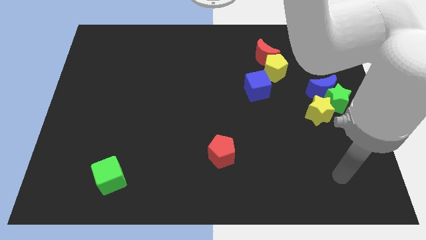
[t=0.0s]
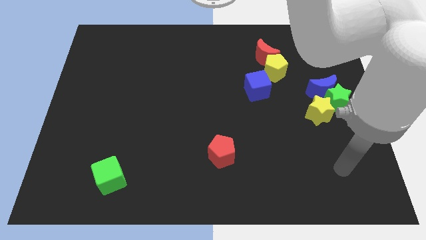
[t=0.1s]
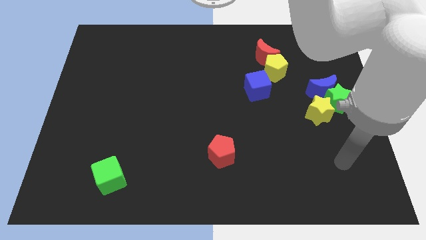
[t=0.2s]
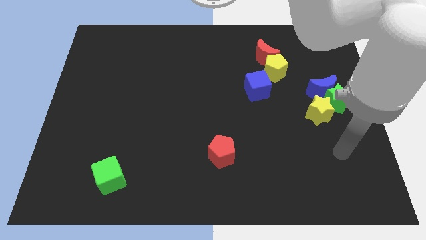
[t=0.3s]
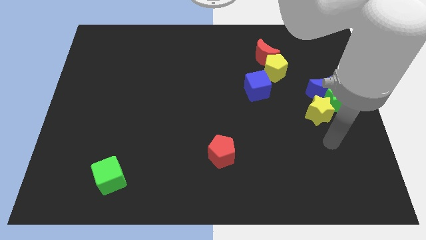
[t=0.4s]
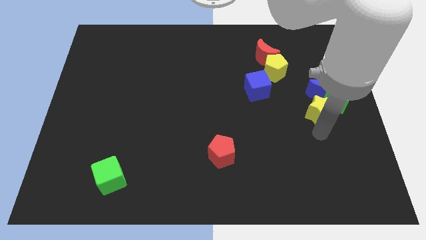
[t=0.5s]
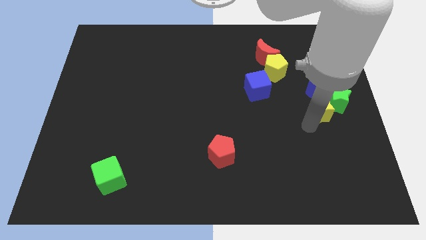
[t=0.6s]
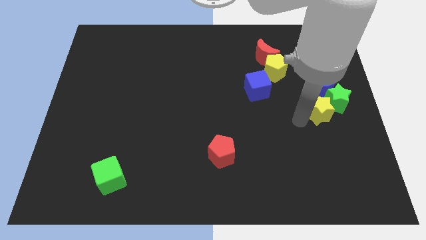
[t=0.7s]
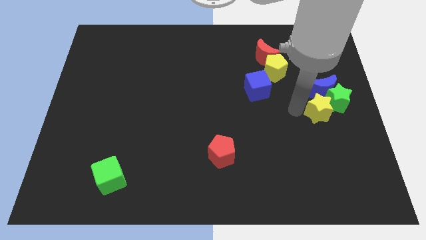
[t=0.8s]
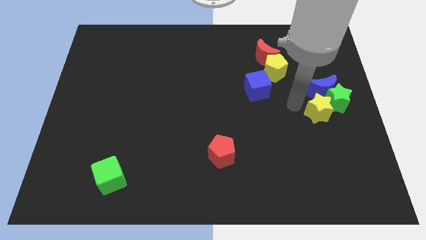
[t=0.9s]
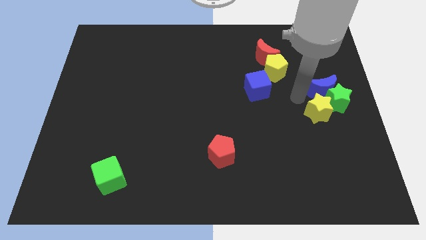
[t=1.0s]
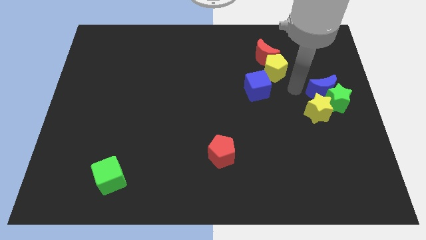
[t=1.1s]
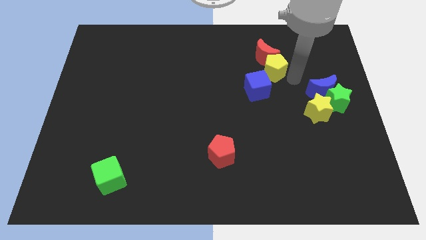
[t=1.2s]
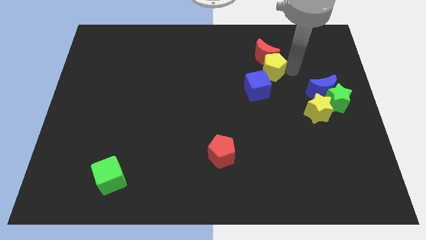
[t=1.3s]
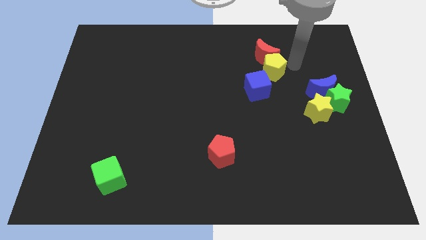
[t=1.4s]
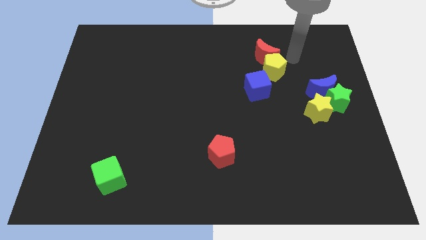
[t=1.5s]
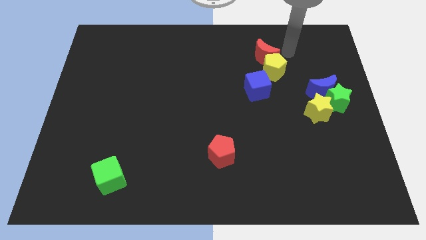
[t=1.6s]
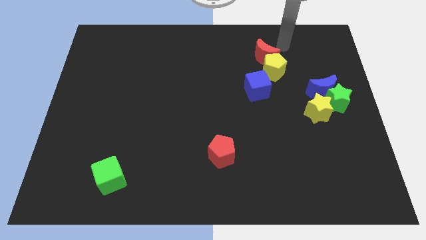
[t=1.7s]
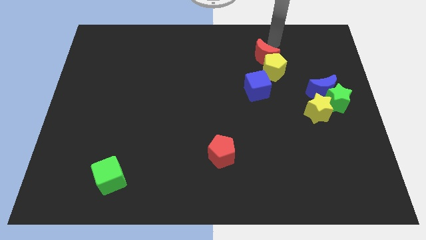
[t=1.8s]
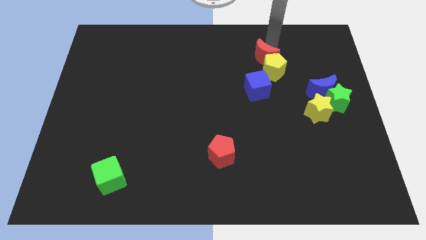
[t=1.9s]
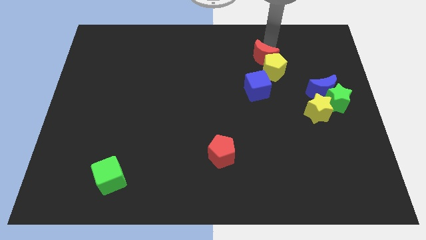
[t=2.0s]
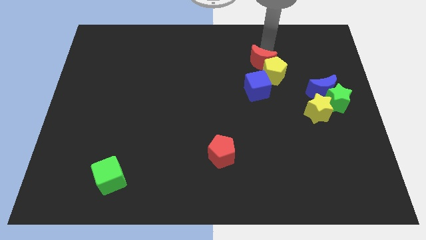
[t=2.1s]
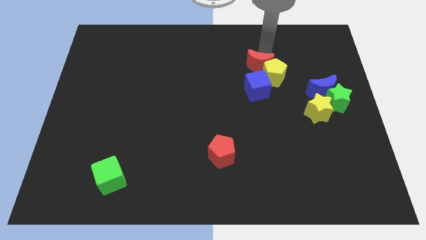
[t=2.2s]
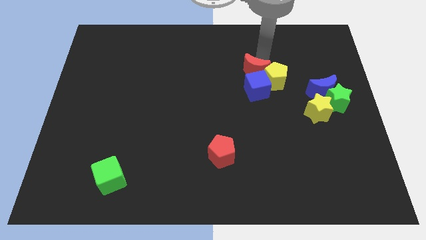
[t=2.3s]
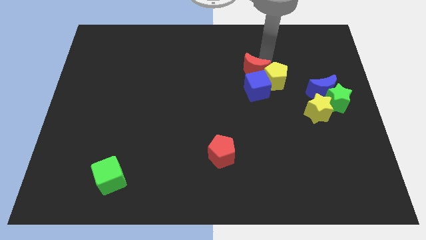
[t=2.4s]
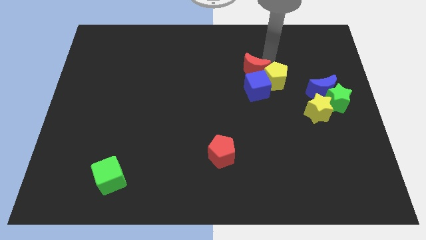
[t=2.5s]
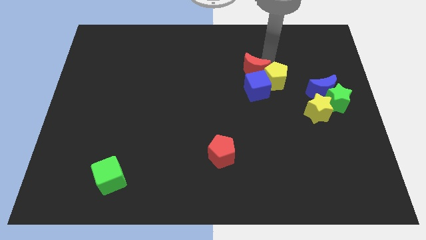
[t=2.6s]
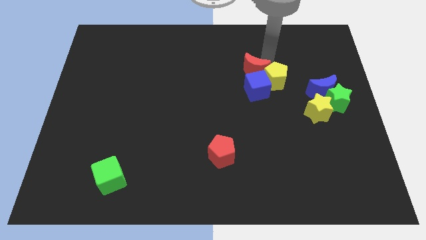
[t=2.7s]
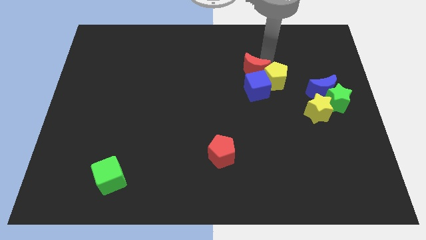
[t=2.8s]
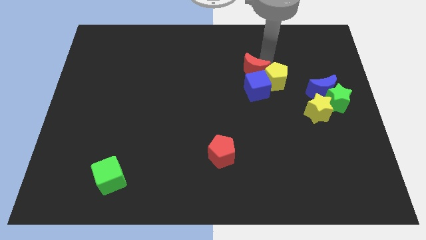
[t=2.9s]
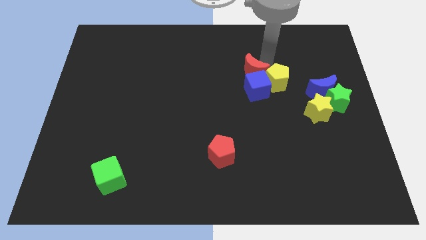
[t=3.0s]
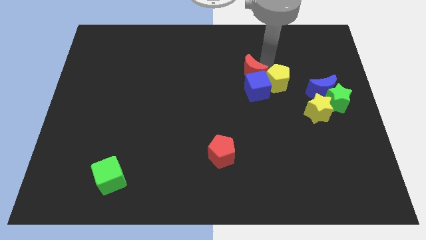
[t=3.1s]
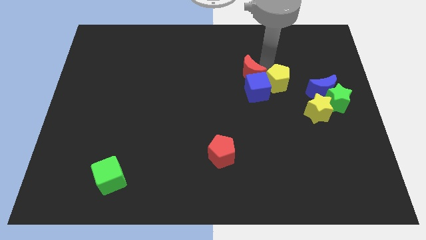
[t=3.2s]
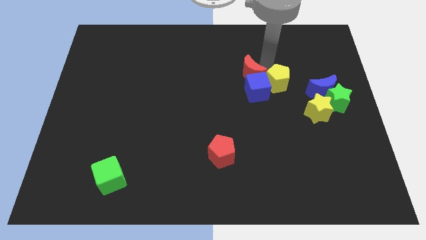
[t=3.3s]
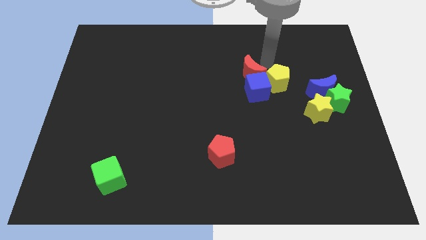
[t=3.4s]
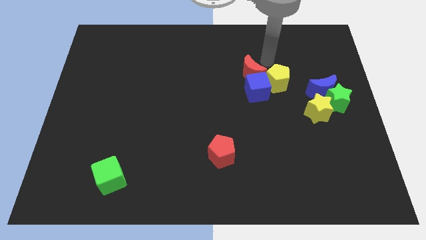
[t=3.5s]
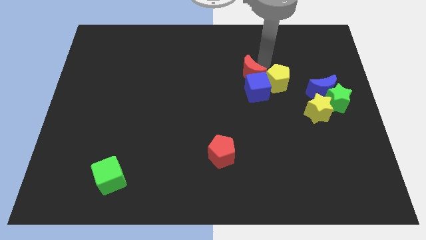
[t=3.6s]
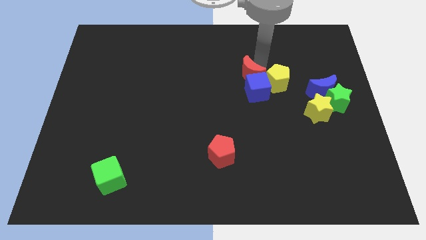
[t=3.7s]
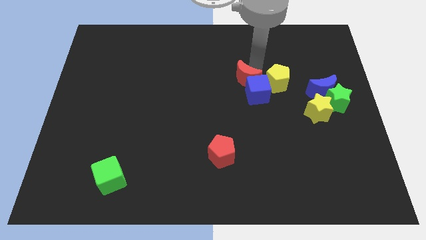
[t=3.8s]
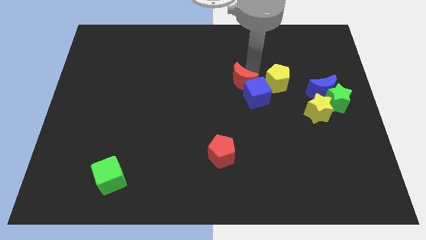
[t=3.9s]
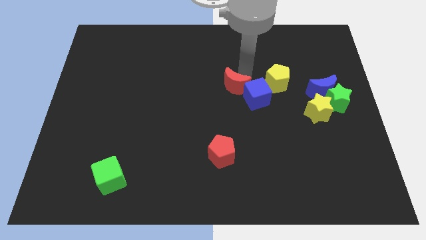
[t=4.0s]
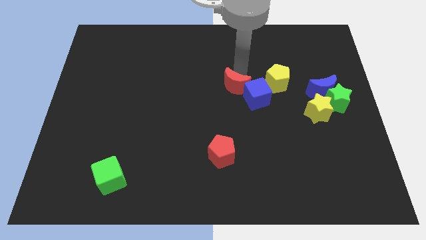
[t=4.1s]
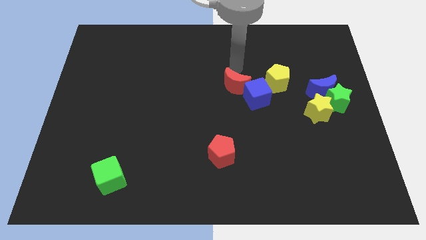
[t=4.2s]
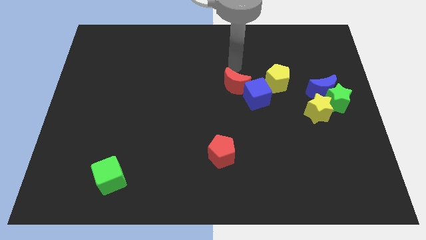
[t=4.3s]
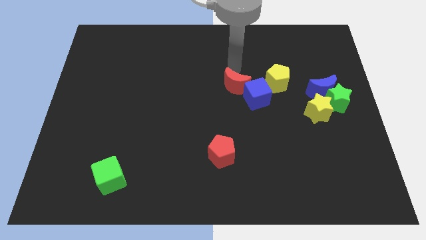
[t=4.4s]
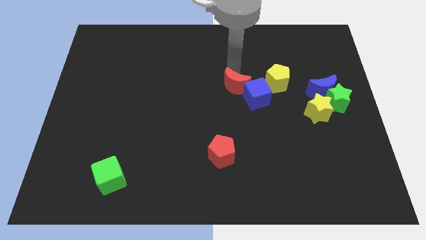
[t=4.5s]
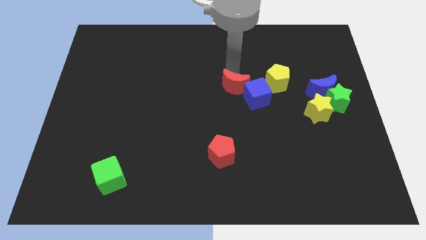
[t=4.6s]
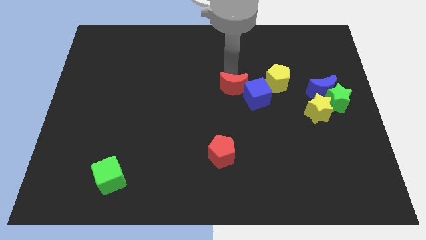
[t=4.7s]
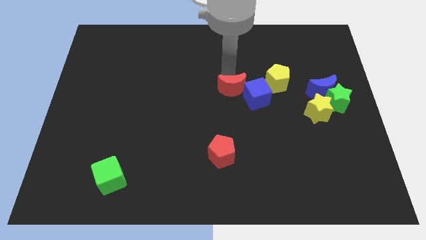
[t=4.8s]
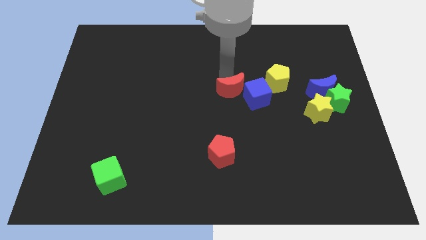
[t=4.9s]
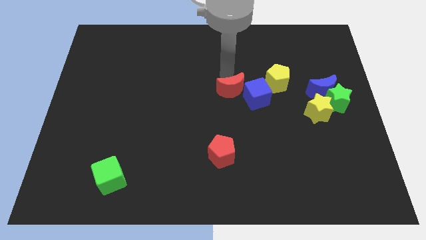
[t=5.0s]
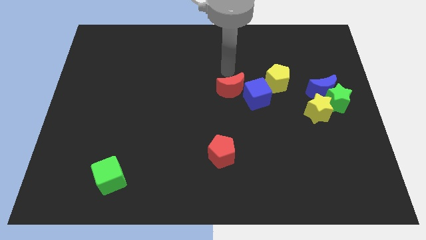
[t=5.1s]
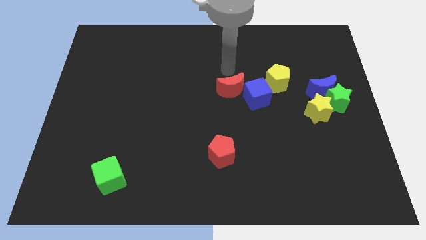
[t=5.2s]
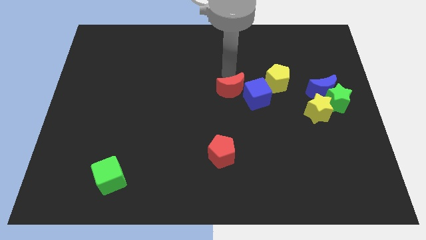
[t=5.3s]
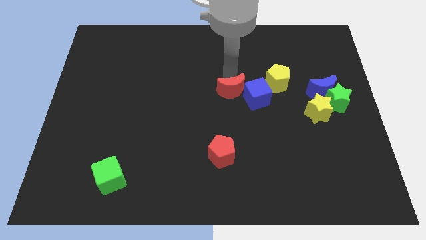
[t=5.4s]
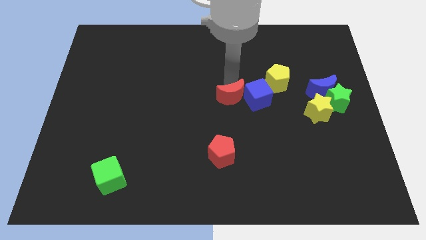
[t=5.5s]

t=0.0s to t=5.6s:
move the red moon diagonally down and to the left of the blue cube

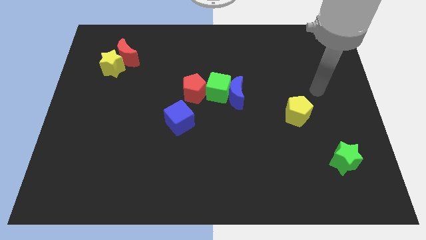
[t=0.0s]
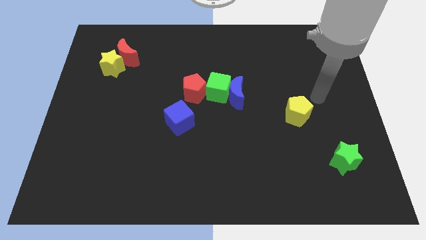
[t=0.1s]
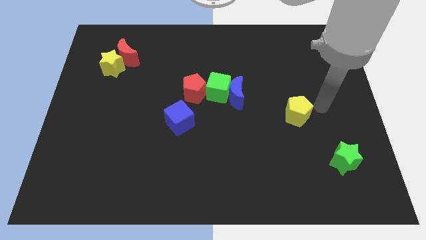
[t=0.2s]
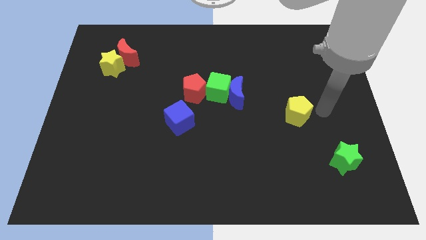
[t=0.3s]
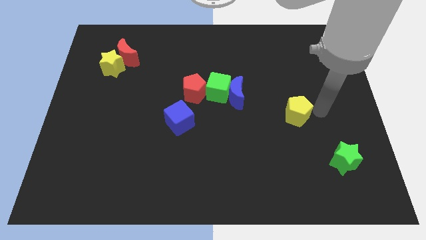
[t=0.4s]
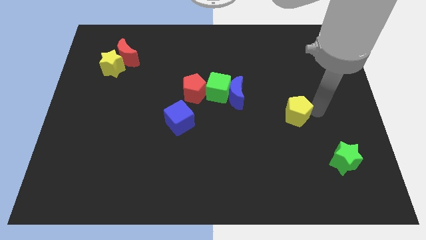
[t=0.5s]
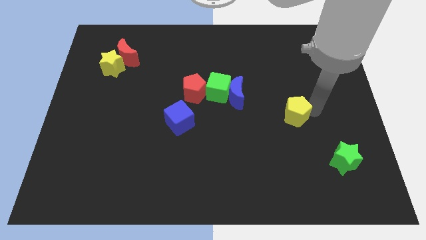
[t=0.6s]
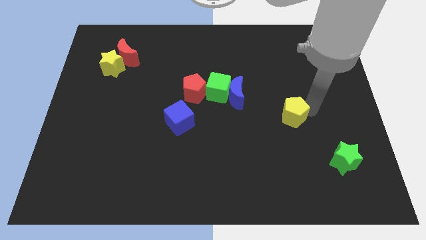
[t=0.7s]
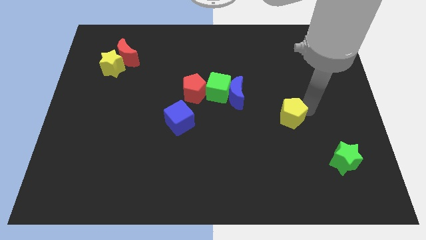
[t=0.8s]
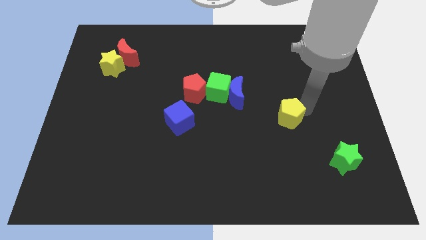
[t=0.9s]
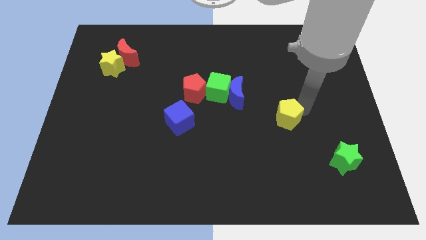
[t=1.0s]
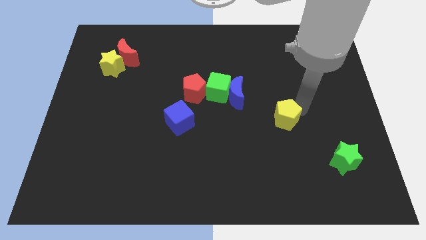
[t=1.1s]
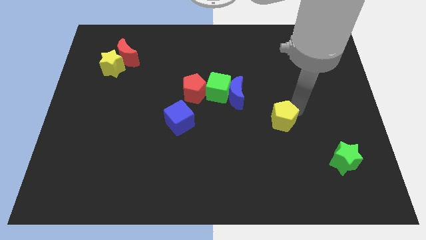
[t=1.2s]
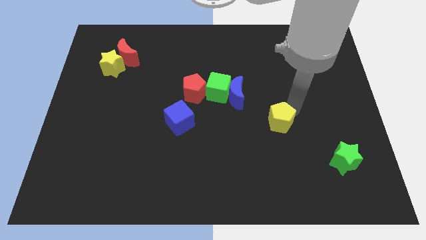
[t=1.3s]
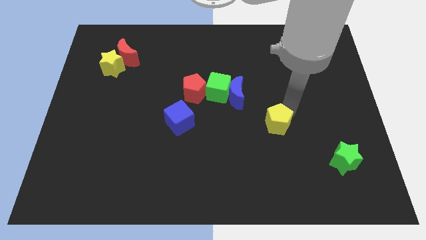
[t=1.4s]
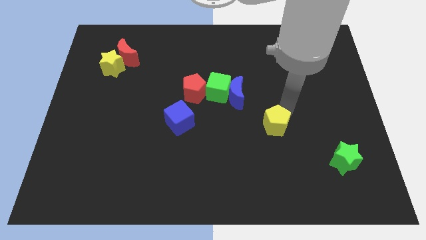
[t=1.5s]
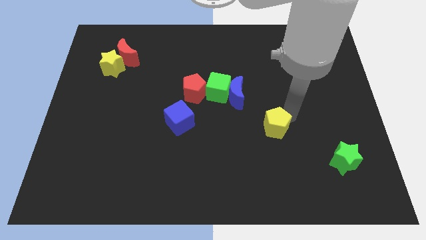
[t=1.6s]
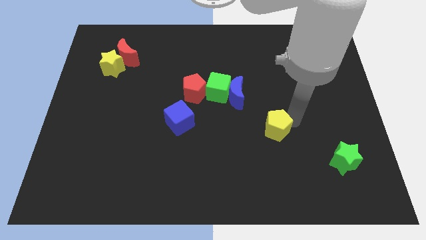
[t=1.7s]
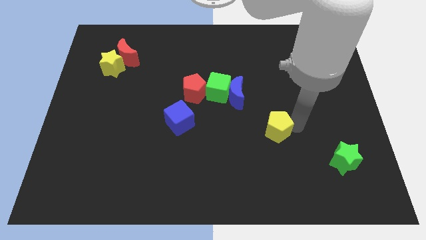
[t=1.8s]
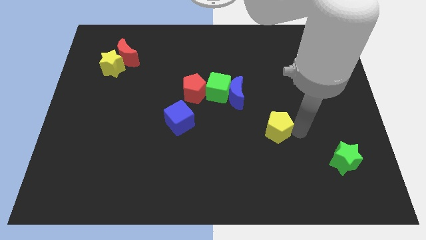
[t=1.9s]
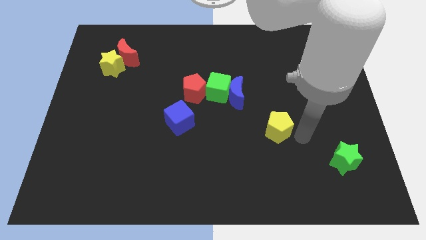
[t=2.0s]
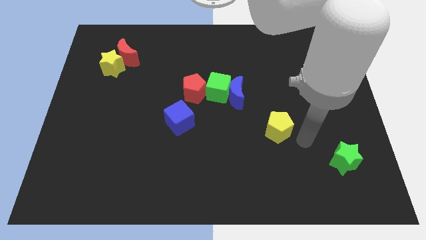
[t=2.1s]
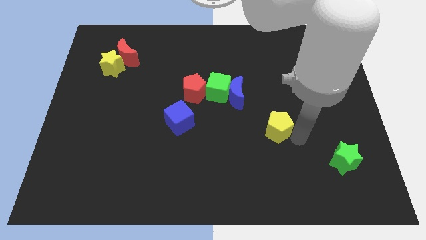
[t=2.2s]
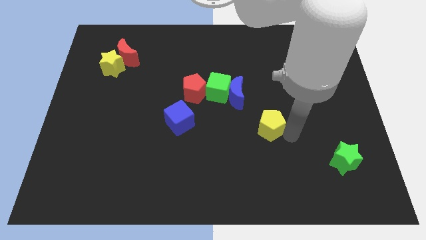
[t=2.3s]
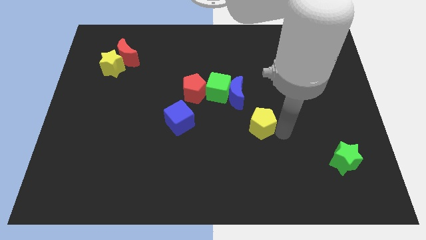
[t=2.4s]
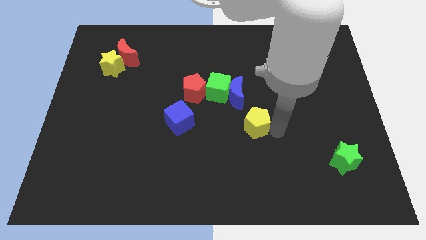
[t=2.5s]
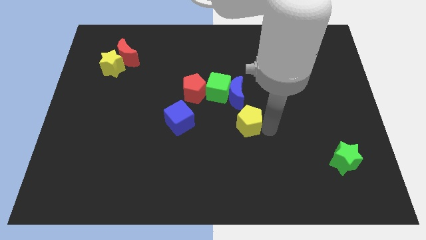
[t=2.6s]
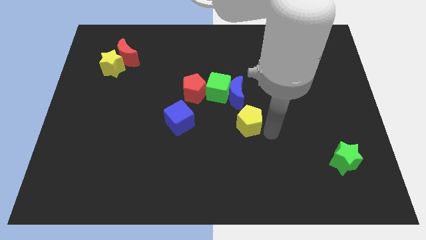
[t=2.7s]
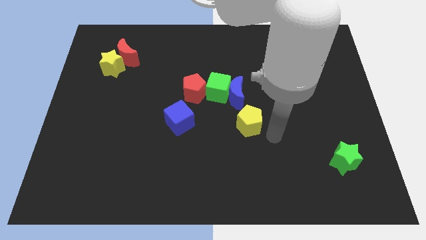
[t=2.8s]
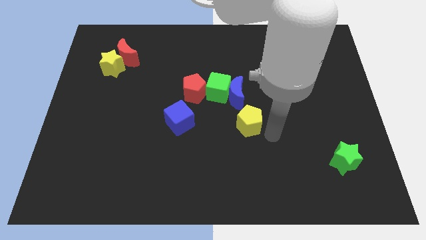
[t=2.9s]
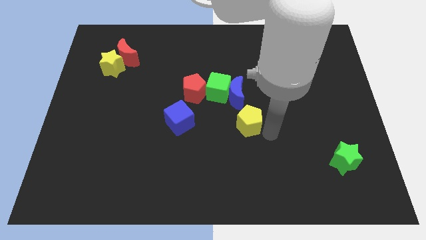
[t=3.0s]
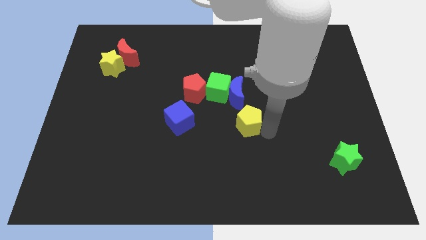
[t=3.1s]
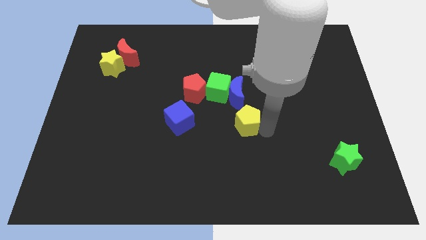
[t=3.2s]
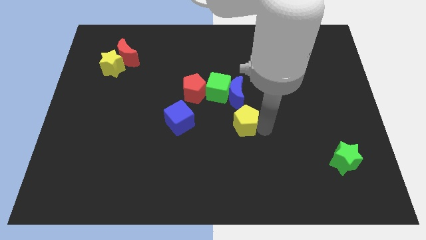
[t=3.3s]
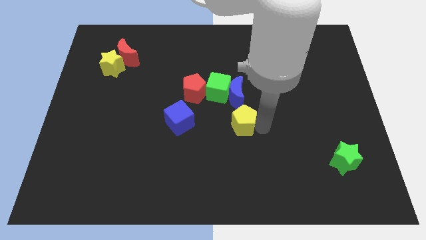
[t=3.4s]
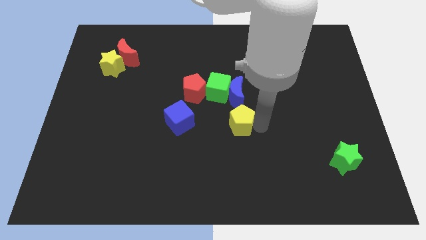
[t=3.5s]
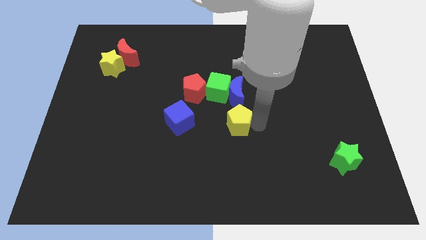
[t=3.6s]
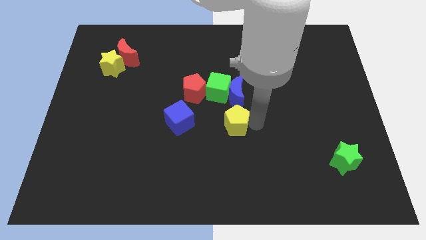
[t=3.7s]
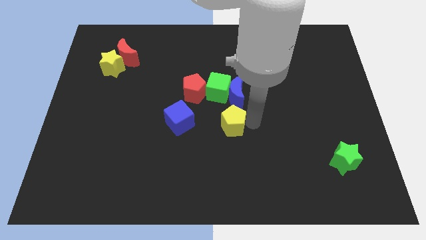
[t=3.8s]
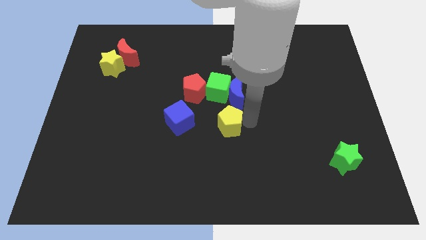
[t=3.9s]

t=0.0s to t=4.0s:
push the yellow pentagon to the bottom right side of the red pentagon
